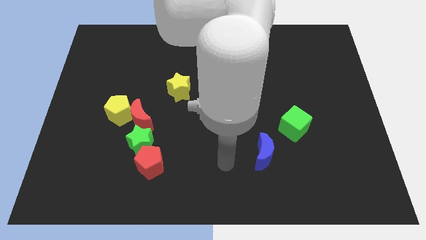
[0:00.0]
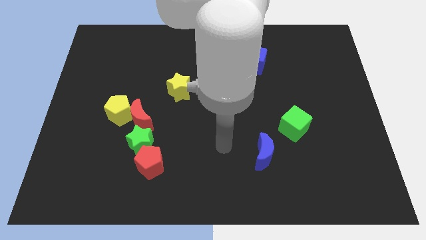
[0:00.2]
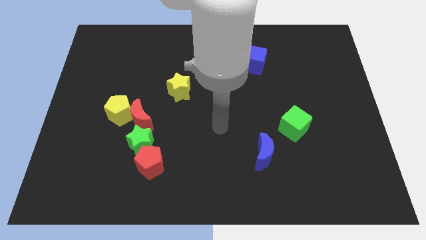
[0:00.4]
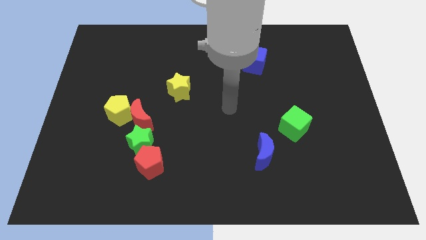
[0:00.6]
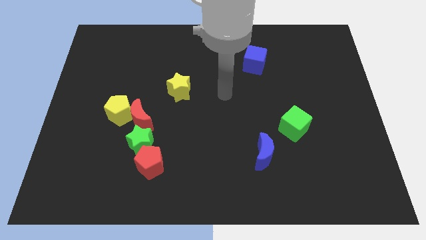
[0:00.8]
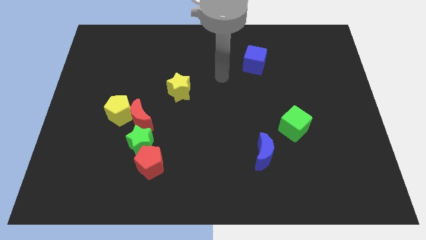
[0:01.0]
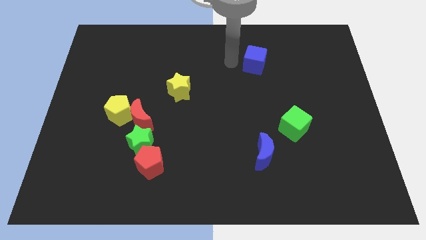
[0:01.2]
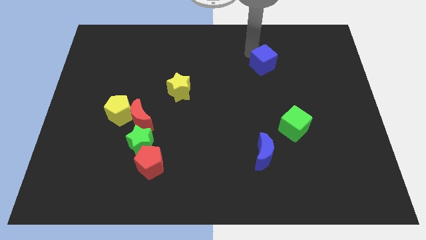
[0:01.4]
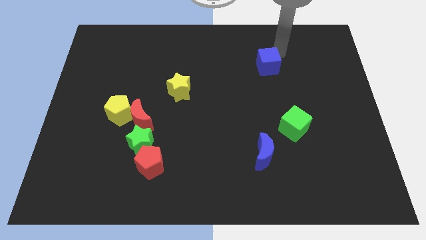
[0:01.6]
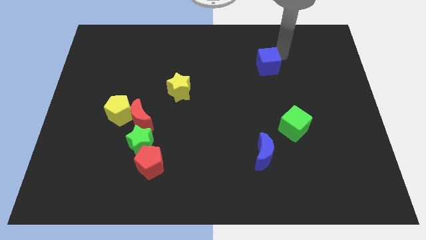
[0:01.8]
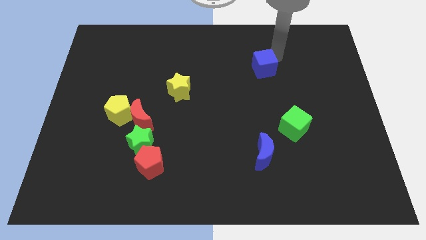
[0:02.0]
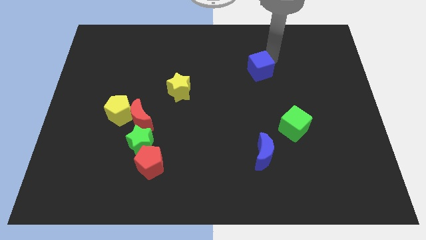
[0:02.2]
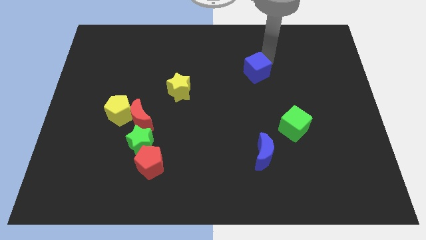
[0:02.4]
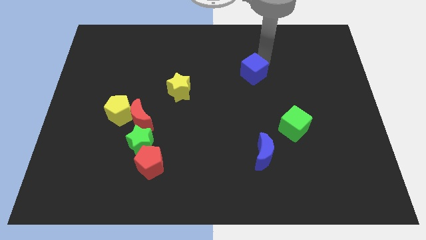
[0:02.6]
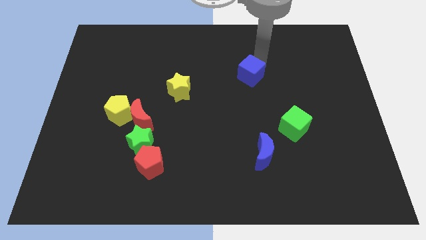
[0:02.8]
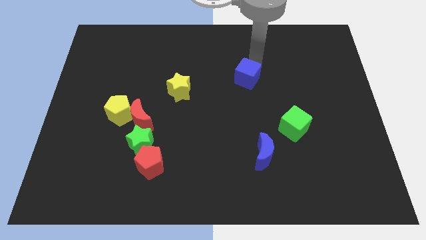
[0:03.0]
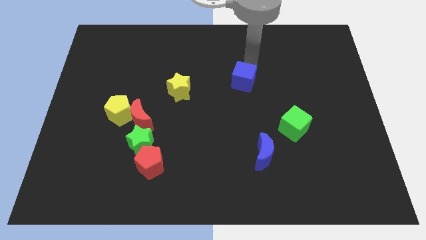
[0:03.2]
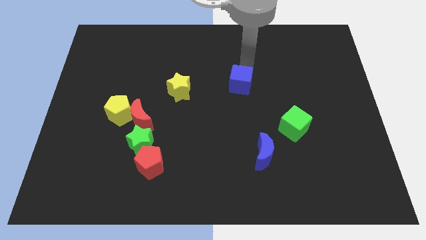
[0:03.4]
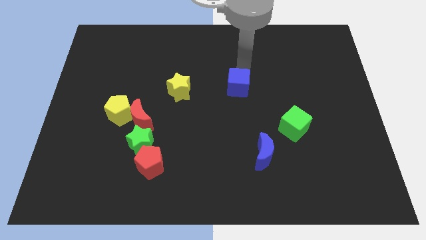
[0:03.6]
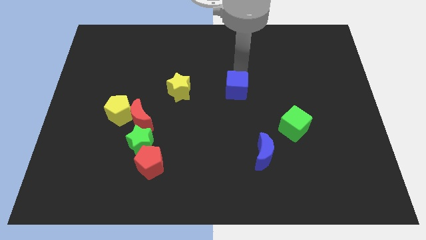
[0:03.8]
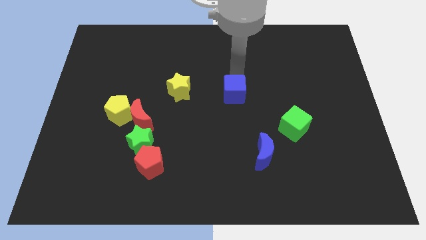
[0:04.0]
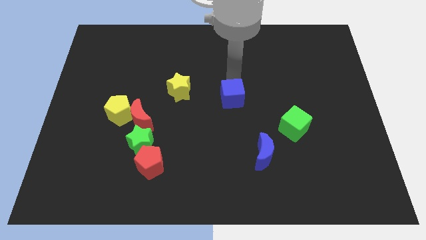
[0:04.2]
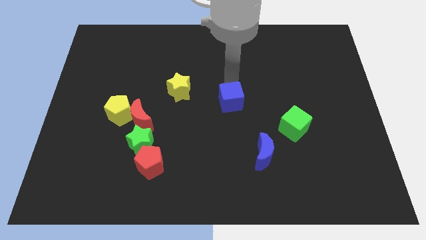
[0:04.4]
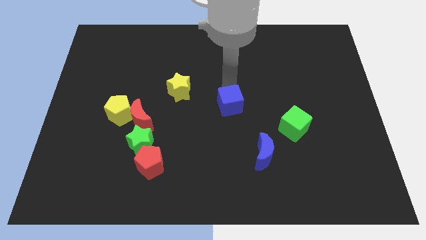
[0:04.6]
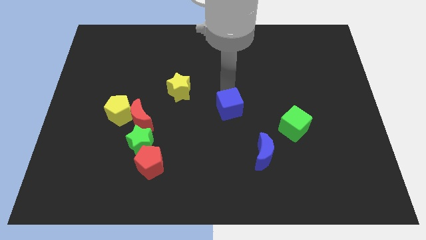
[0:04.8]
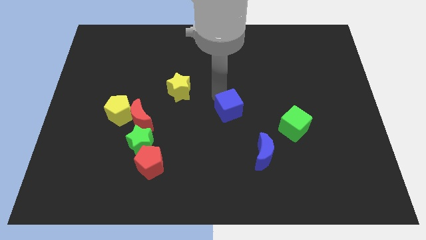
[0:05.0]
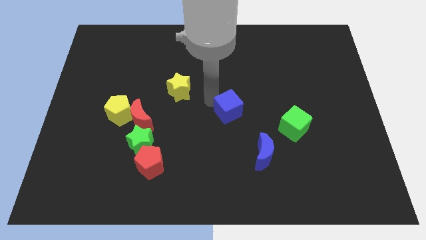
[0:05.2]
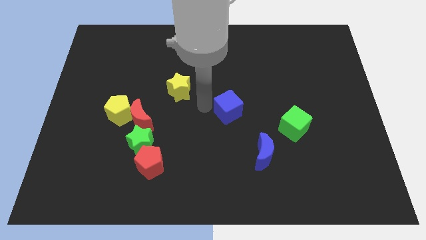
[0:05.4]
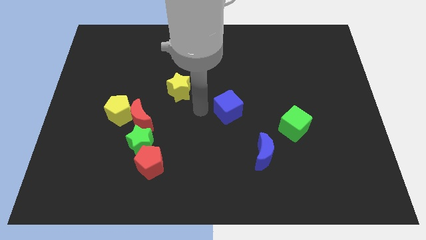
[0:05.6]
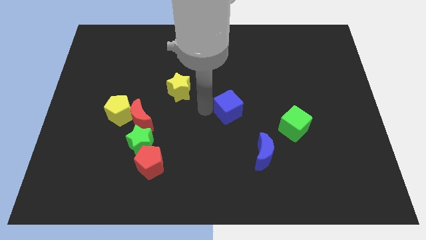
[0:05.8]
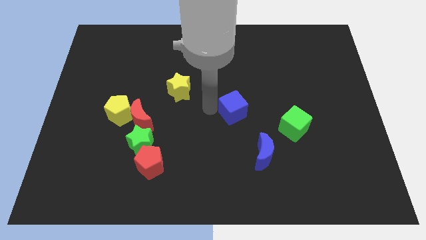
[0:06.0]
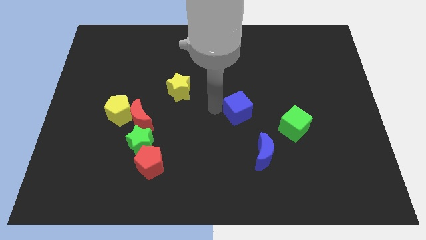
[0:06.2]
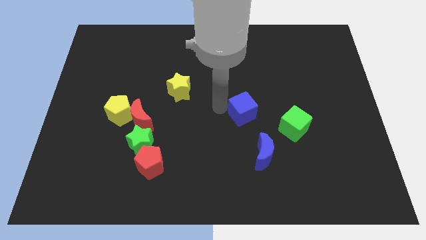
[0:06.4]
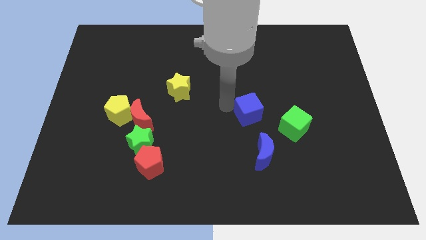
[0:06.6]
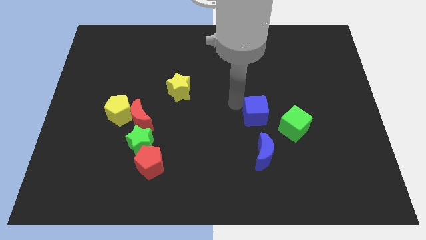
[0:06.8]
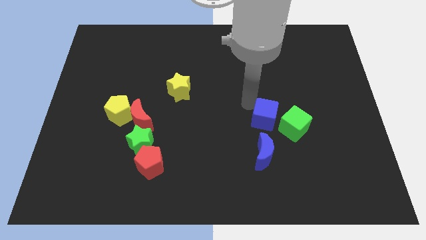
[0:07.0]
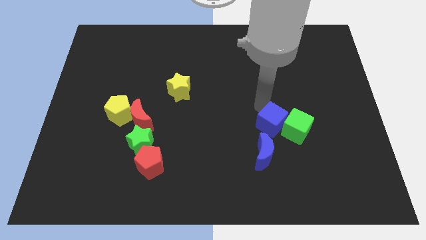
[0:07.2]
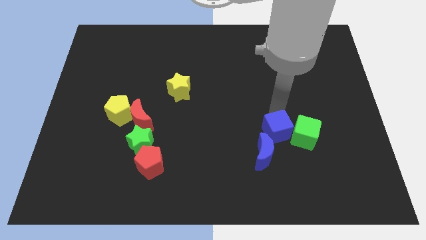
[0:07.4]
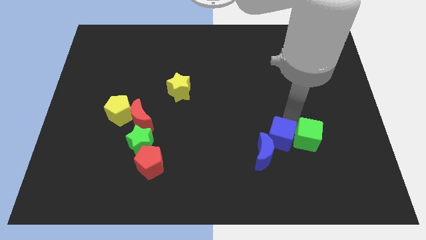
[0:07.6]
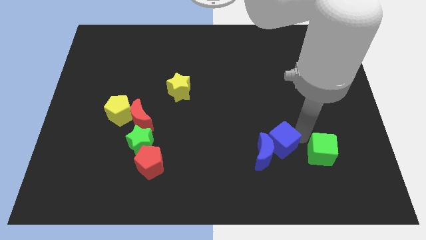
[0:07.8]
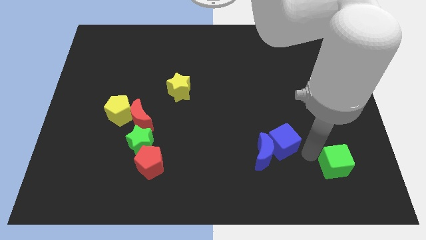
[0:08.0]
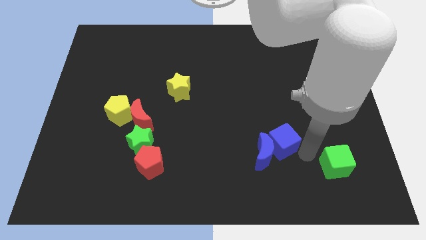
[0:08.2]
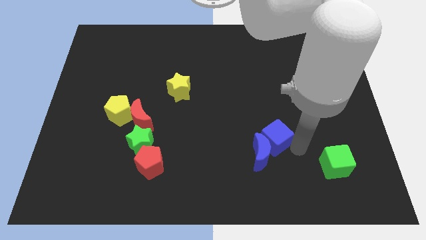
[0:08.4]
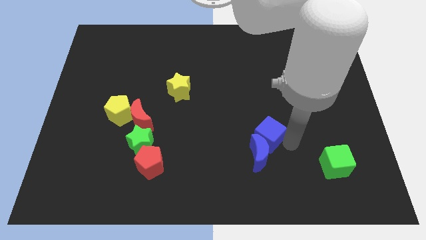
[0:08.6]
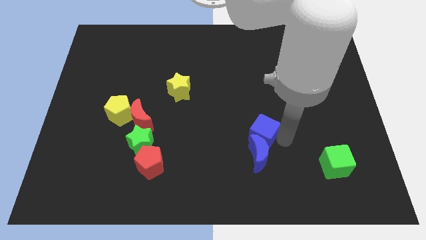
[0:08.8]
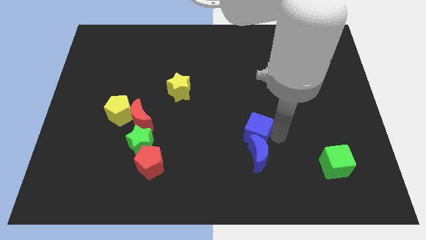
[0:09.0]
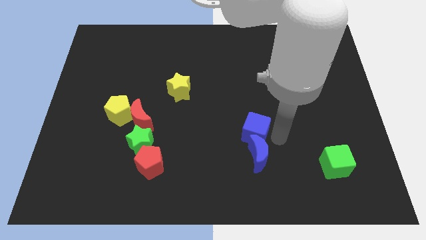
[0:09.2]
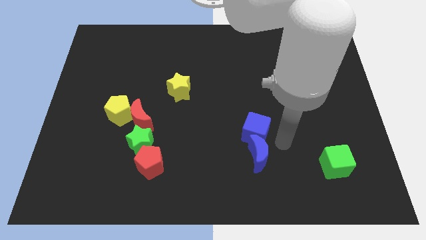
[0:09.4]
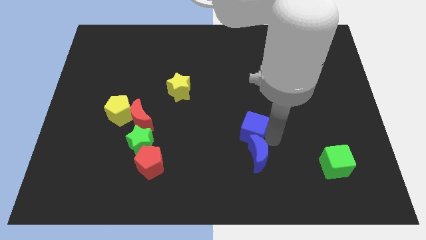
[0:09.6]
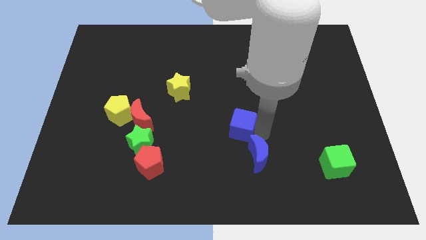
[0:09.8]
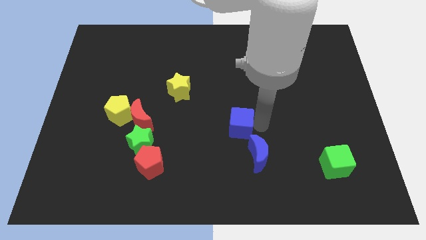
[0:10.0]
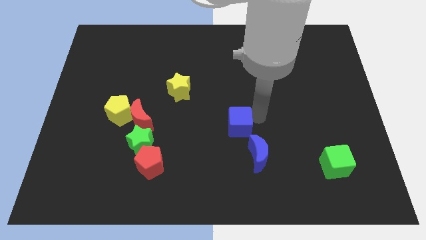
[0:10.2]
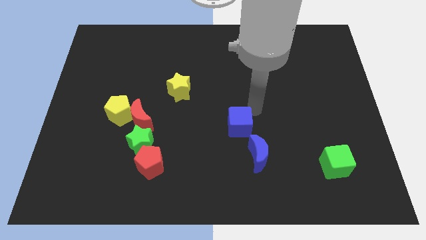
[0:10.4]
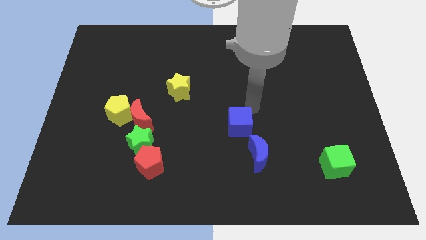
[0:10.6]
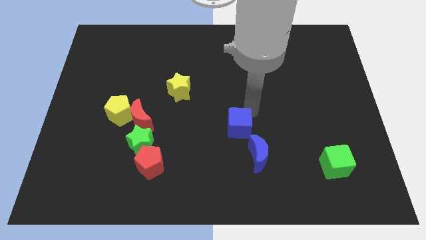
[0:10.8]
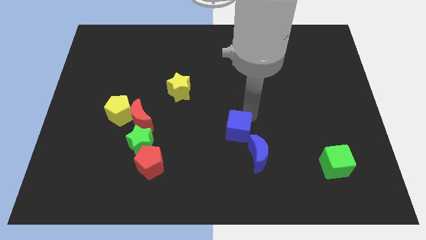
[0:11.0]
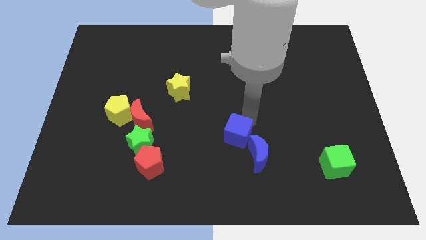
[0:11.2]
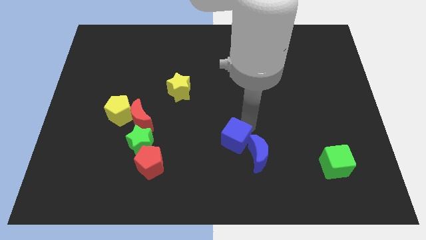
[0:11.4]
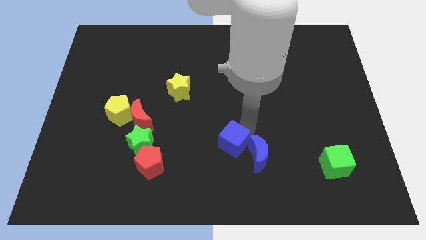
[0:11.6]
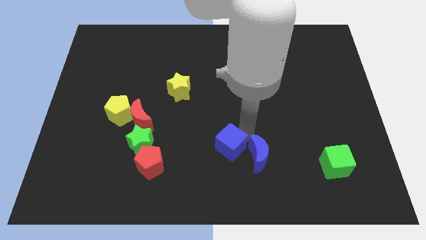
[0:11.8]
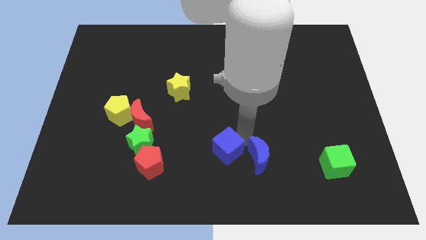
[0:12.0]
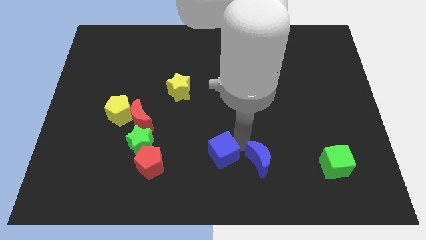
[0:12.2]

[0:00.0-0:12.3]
push the blue cube to the right side of the red pentagon

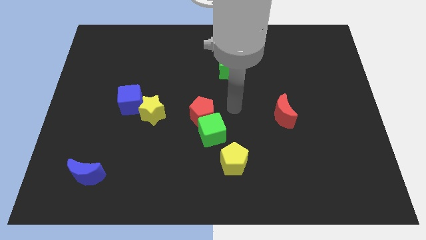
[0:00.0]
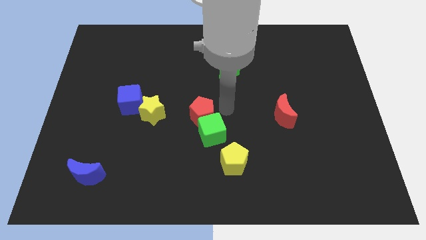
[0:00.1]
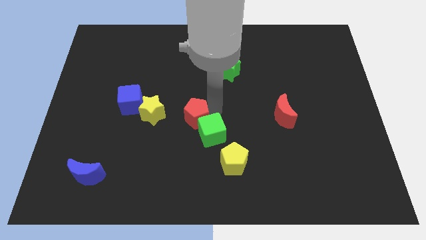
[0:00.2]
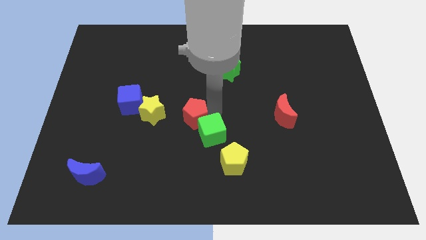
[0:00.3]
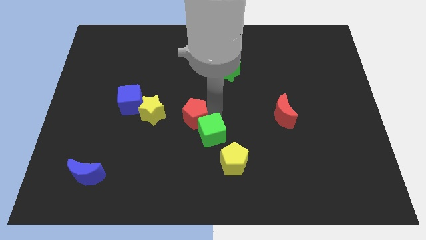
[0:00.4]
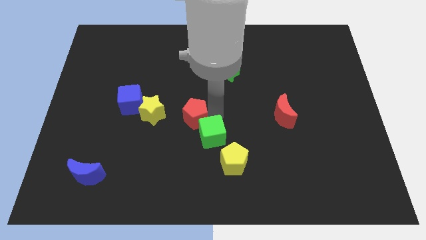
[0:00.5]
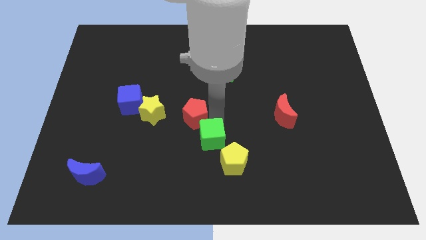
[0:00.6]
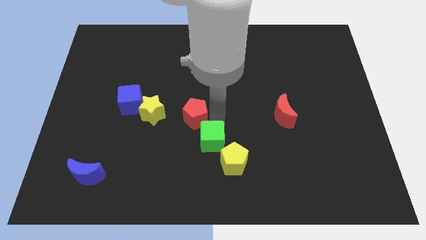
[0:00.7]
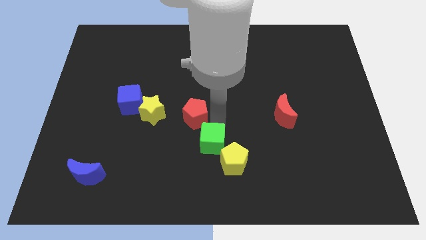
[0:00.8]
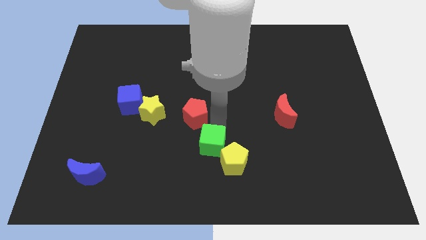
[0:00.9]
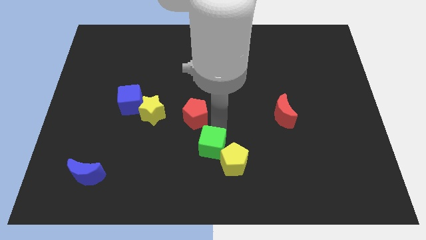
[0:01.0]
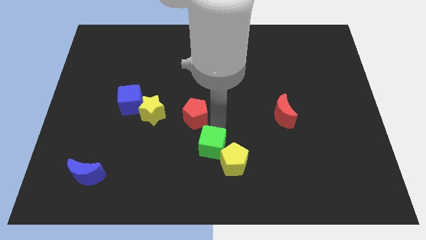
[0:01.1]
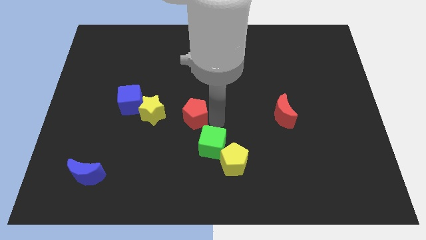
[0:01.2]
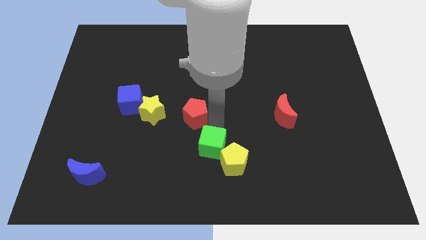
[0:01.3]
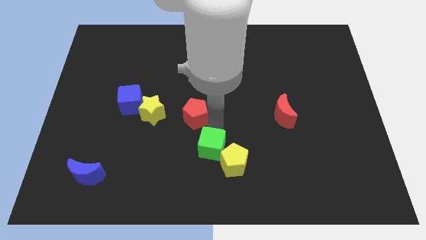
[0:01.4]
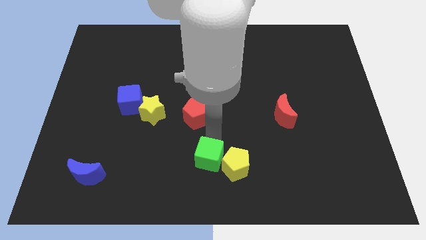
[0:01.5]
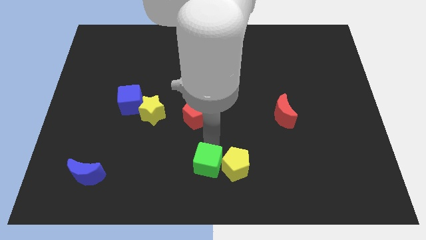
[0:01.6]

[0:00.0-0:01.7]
push the green cube diagonally down and to the left of the yellow pentagon
